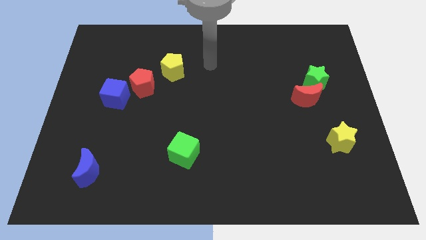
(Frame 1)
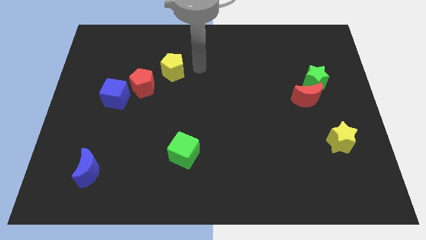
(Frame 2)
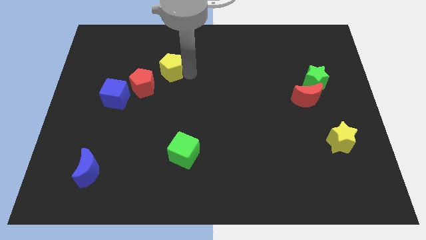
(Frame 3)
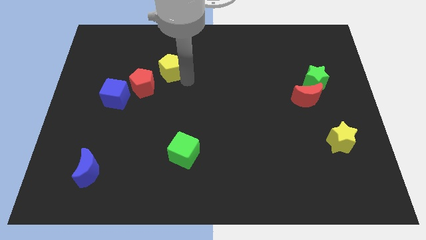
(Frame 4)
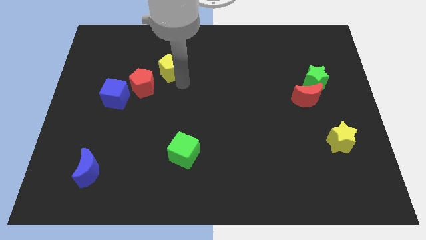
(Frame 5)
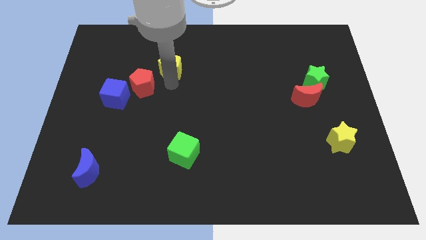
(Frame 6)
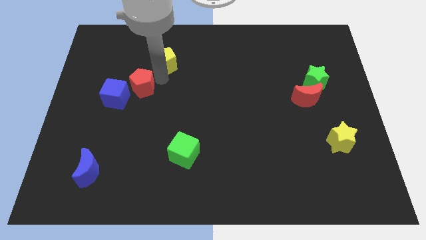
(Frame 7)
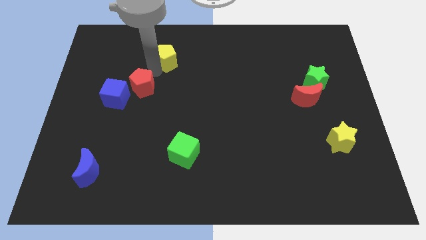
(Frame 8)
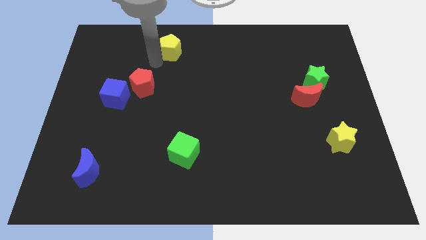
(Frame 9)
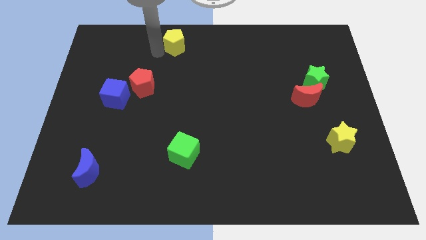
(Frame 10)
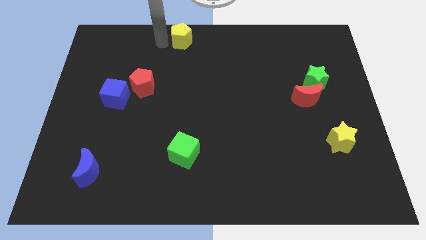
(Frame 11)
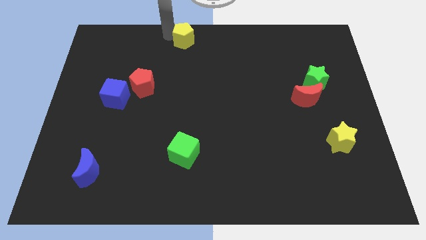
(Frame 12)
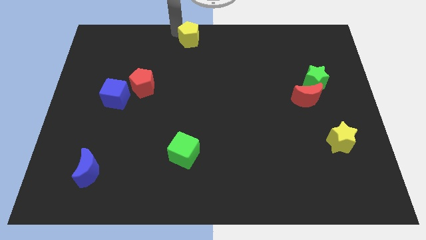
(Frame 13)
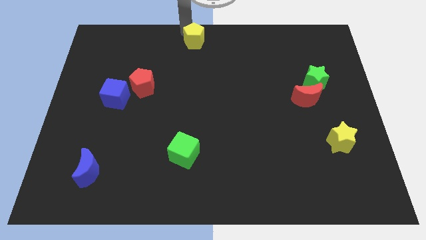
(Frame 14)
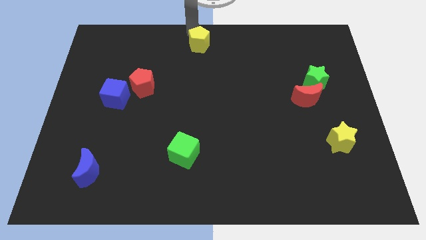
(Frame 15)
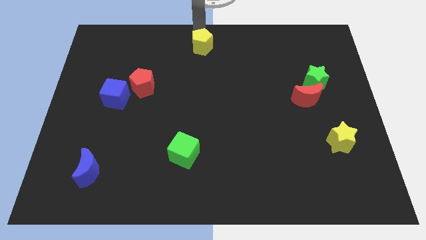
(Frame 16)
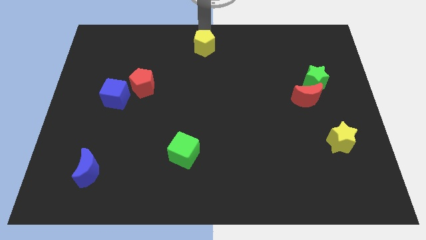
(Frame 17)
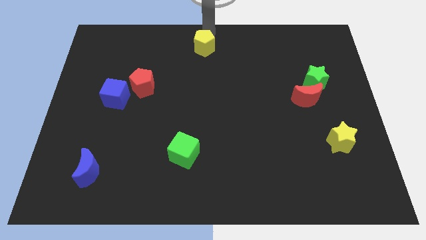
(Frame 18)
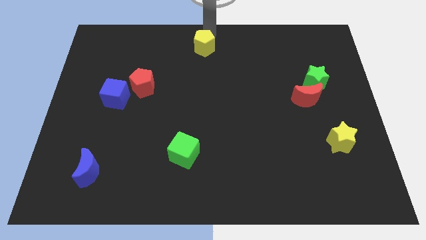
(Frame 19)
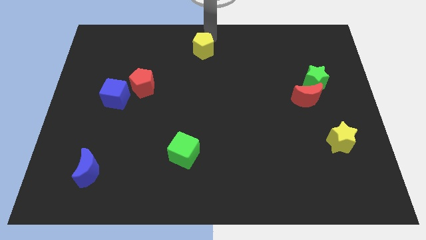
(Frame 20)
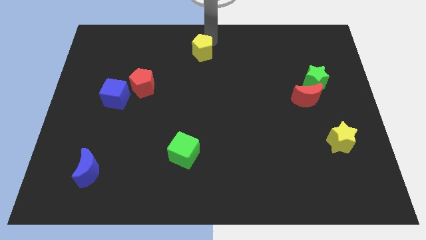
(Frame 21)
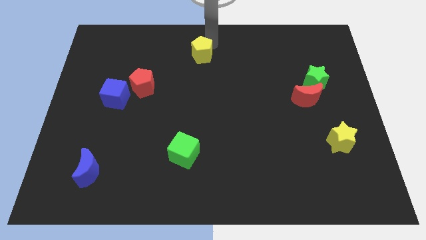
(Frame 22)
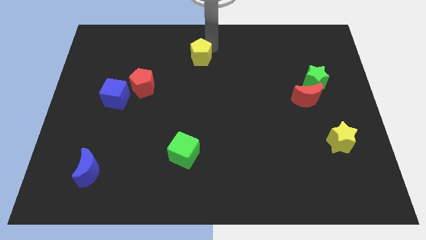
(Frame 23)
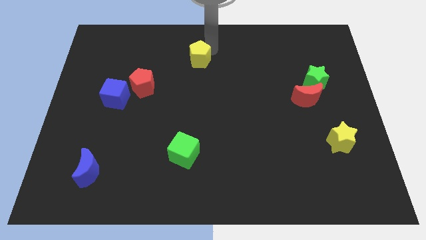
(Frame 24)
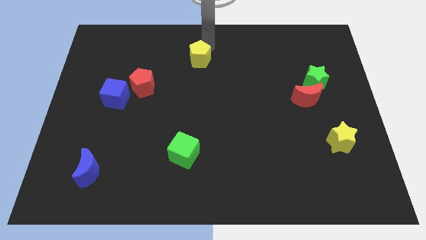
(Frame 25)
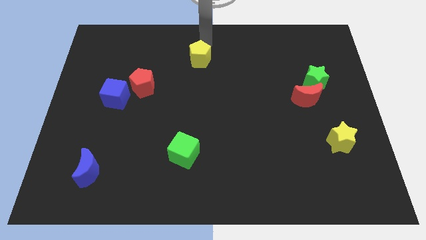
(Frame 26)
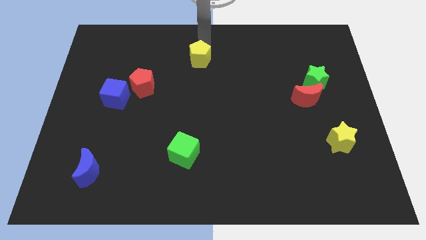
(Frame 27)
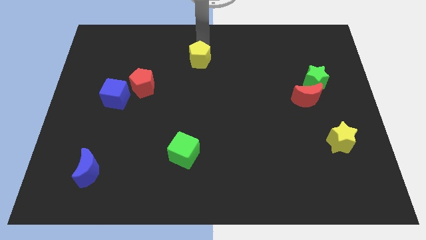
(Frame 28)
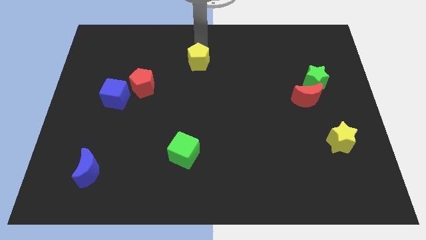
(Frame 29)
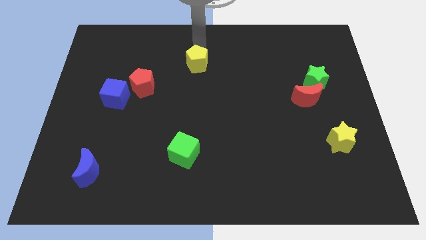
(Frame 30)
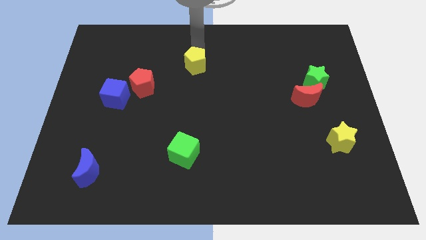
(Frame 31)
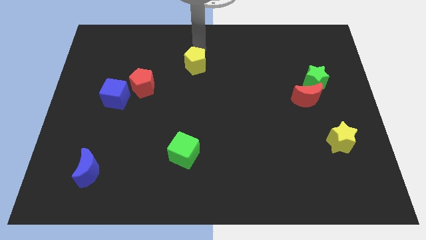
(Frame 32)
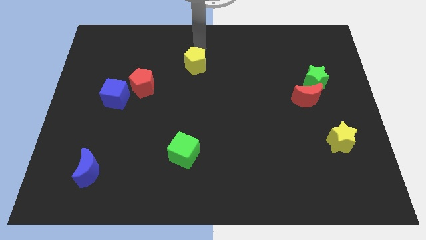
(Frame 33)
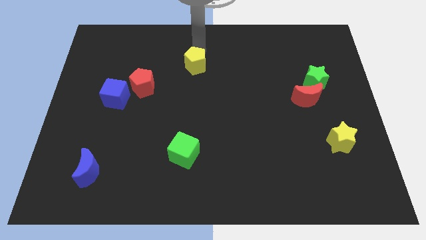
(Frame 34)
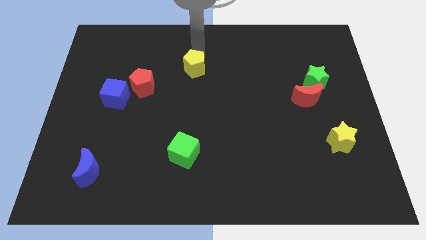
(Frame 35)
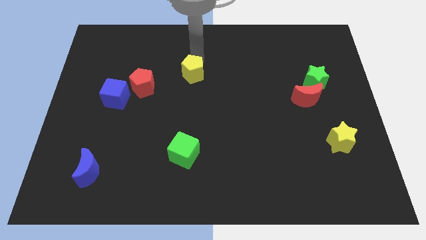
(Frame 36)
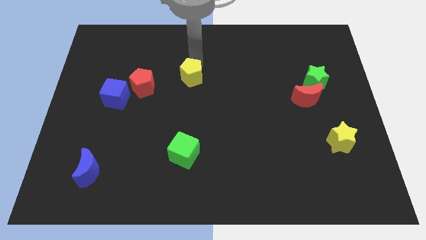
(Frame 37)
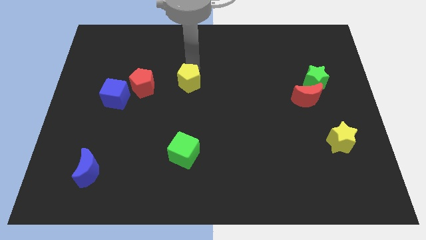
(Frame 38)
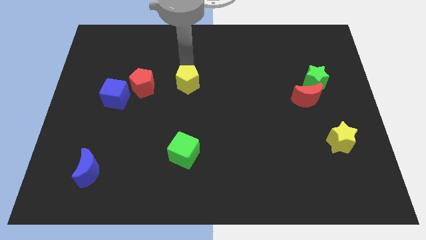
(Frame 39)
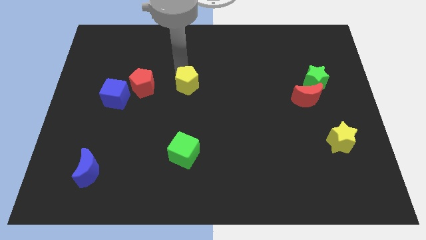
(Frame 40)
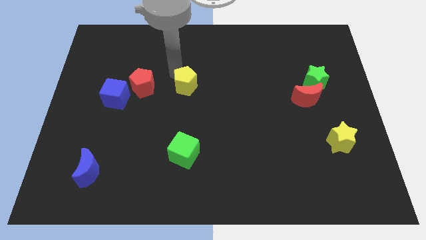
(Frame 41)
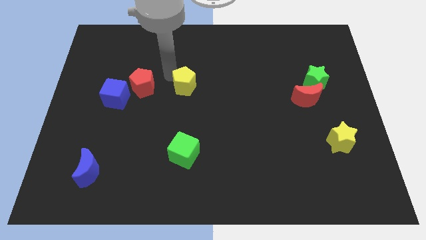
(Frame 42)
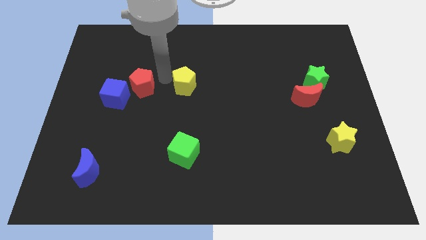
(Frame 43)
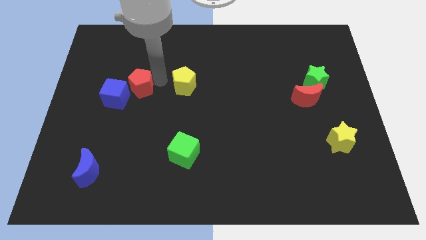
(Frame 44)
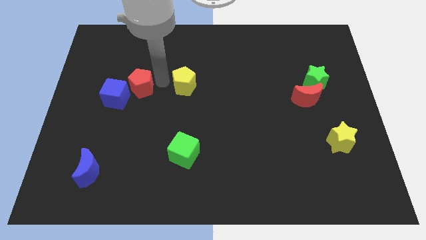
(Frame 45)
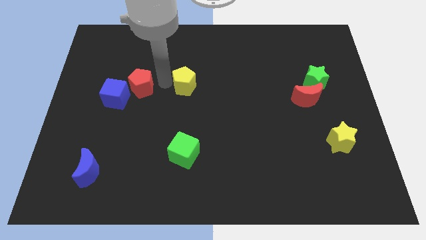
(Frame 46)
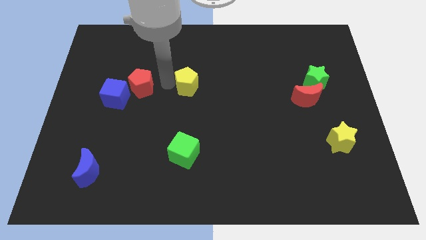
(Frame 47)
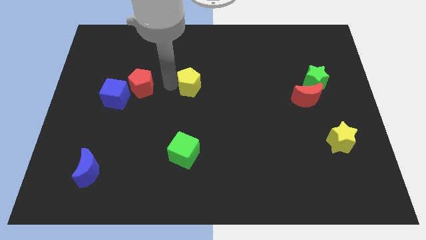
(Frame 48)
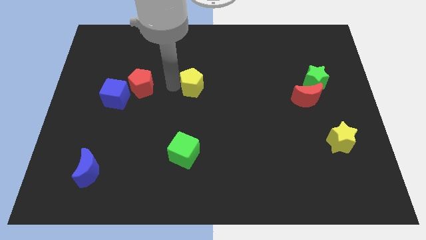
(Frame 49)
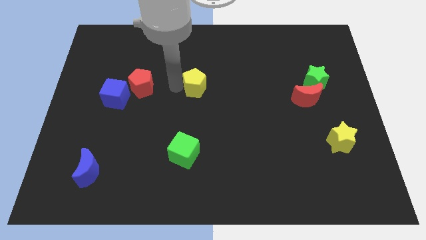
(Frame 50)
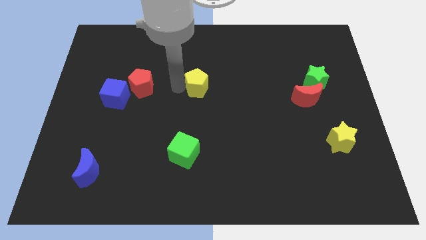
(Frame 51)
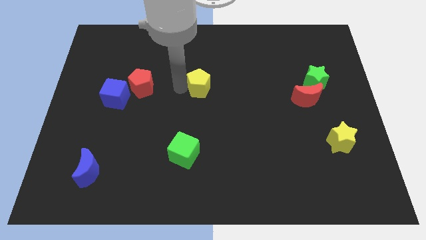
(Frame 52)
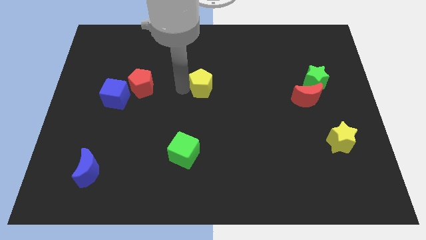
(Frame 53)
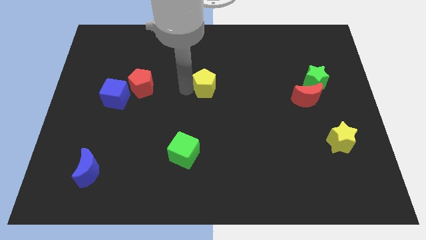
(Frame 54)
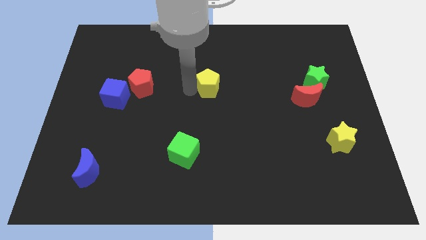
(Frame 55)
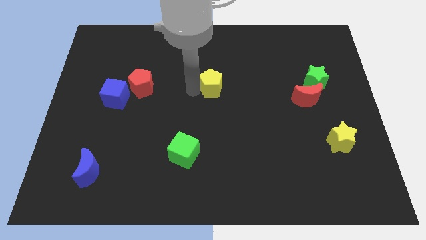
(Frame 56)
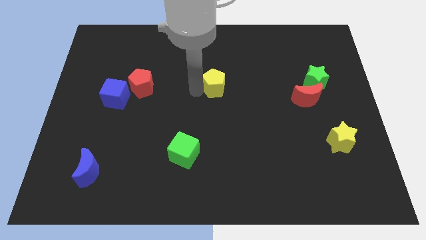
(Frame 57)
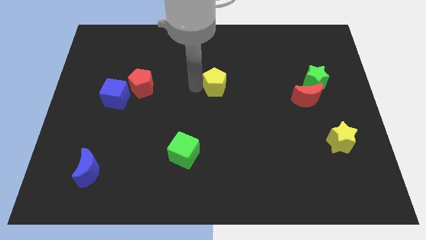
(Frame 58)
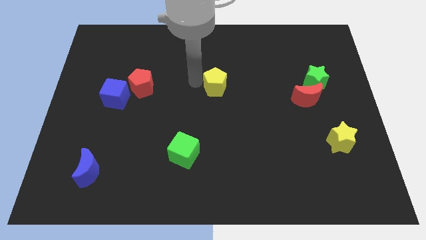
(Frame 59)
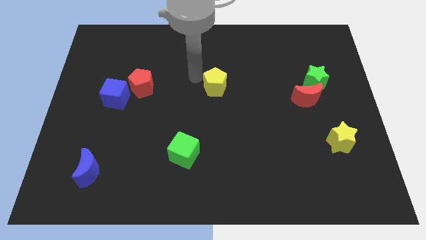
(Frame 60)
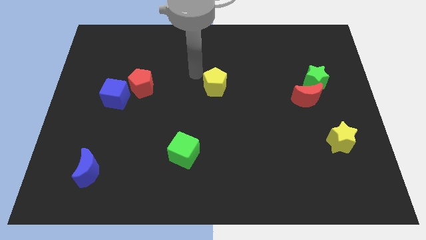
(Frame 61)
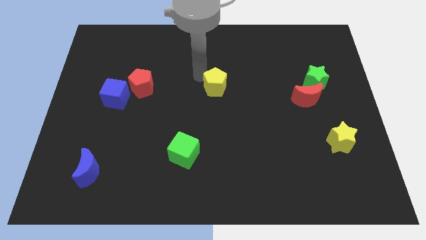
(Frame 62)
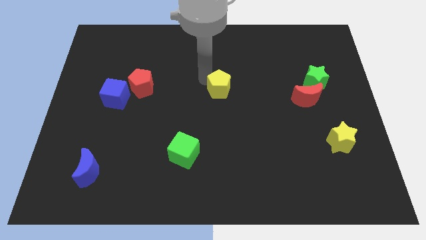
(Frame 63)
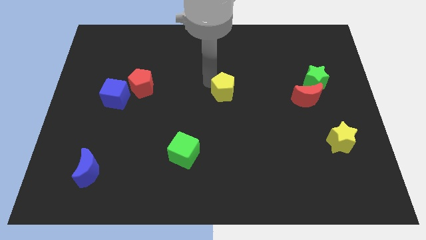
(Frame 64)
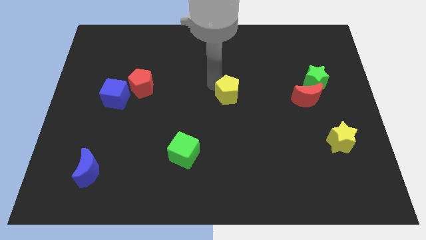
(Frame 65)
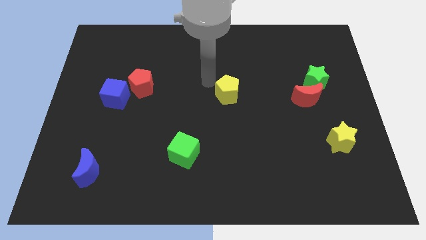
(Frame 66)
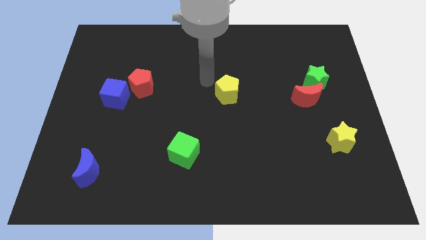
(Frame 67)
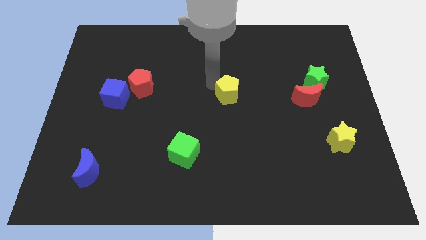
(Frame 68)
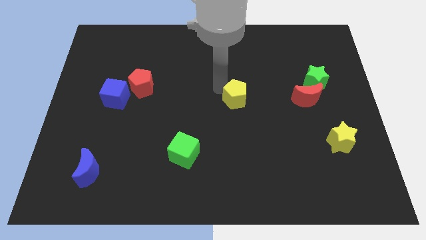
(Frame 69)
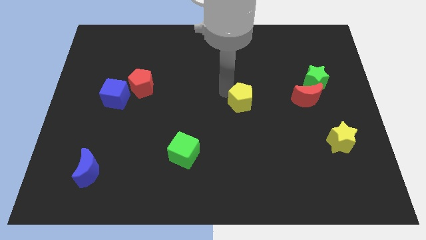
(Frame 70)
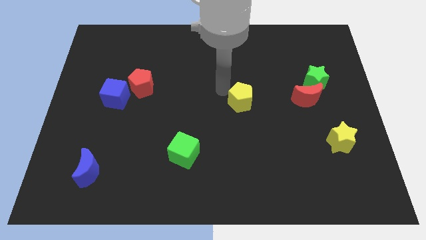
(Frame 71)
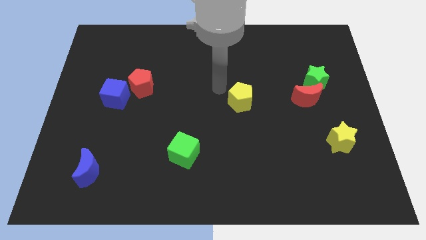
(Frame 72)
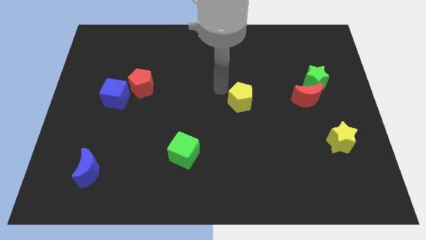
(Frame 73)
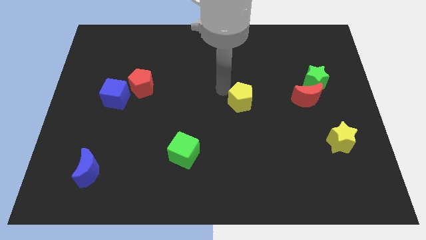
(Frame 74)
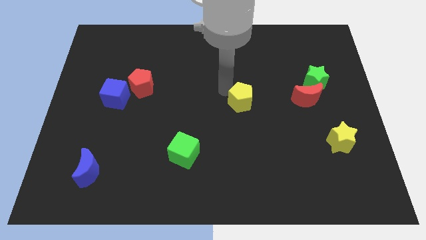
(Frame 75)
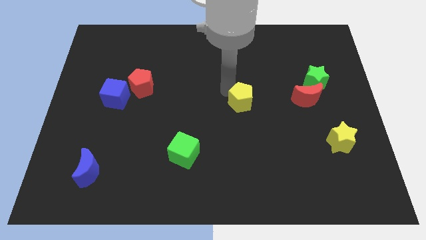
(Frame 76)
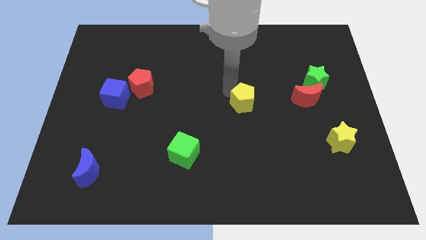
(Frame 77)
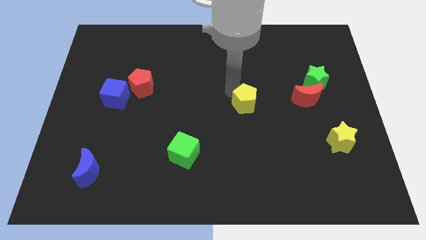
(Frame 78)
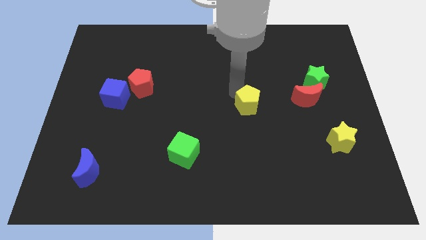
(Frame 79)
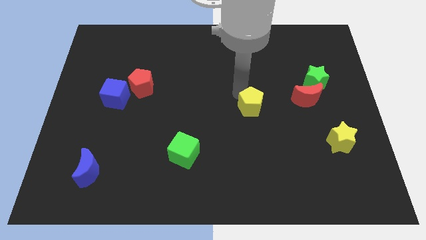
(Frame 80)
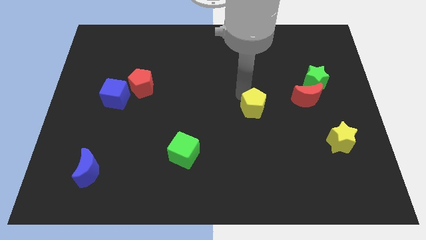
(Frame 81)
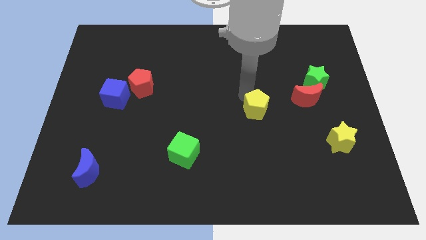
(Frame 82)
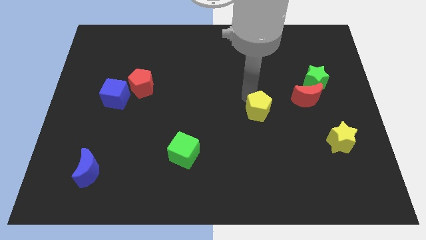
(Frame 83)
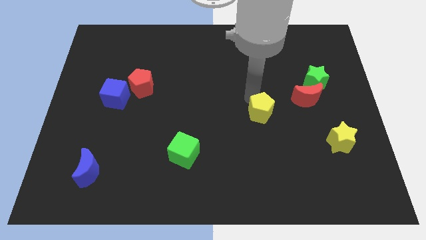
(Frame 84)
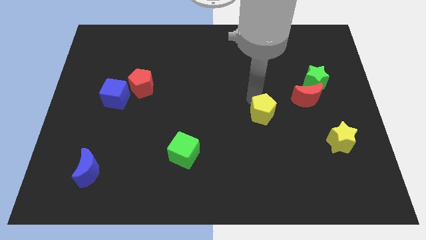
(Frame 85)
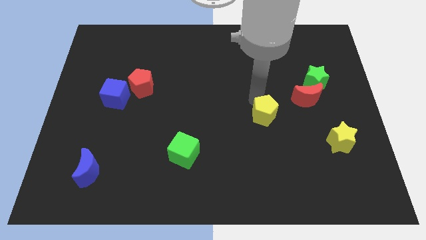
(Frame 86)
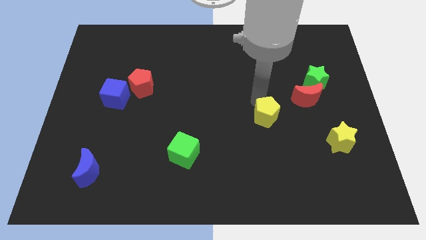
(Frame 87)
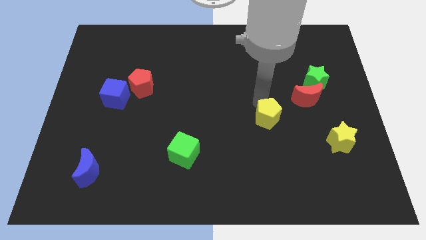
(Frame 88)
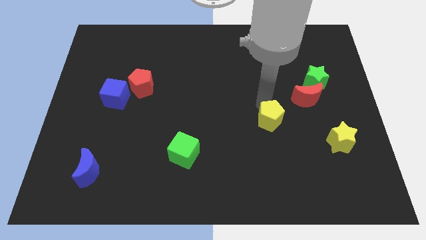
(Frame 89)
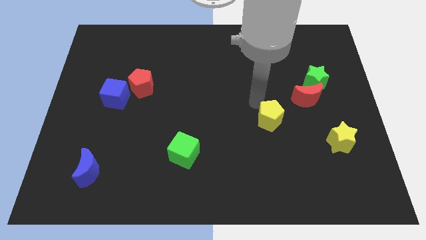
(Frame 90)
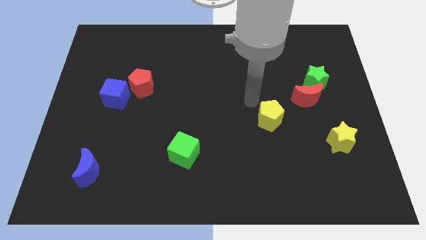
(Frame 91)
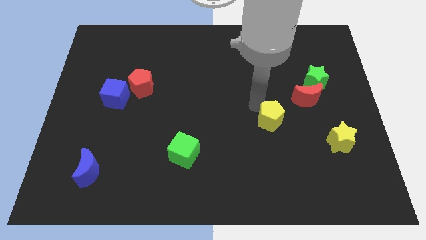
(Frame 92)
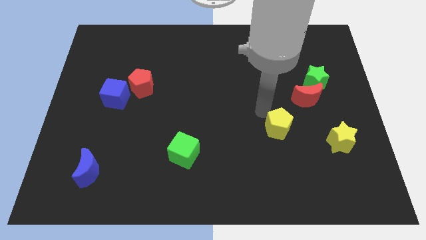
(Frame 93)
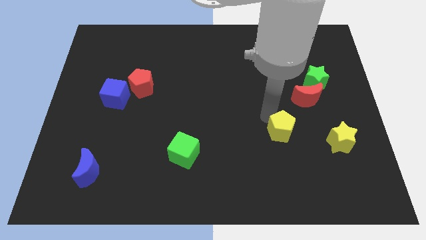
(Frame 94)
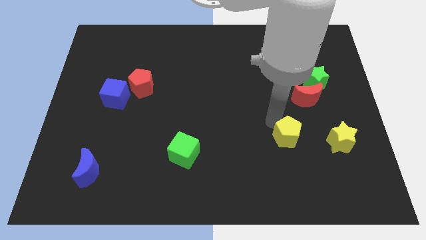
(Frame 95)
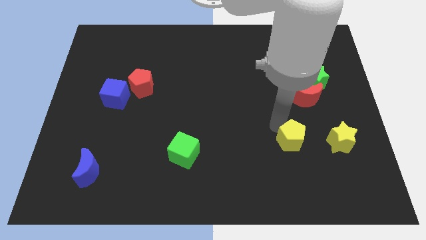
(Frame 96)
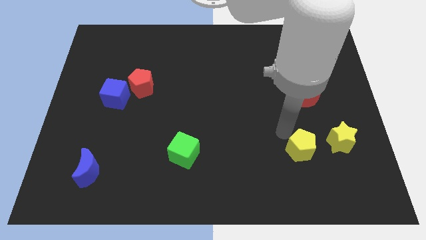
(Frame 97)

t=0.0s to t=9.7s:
move the yellow pentagon to the bottom left of the yellow star
